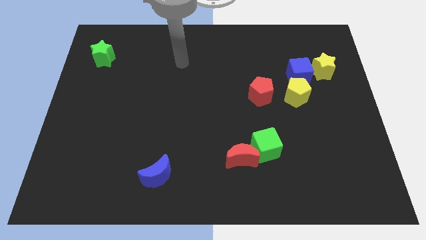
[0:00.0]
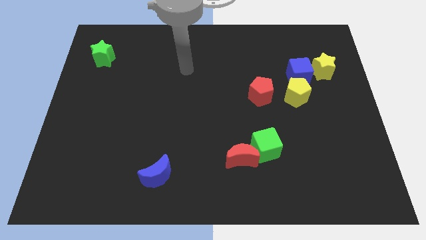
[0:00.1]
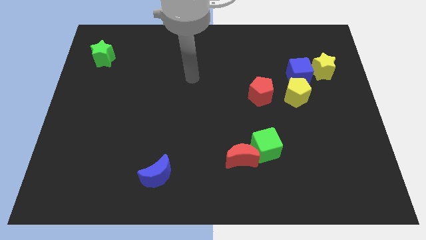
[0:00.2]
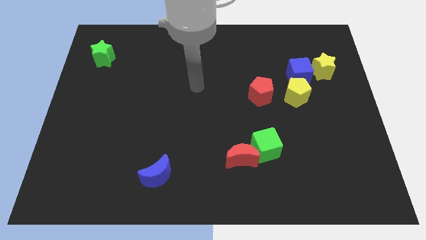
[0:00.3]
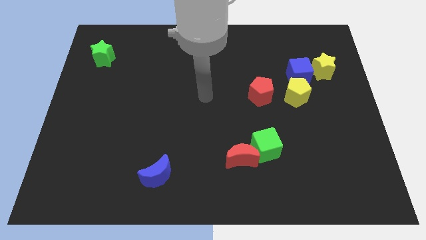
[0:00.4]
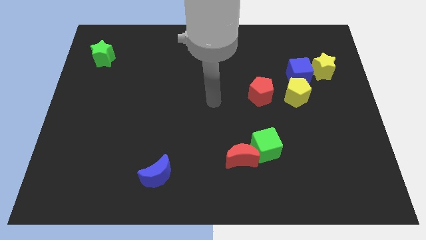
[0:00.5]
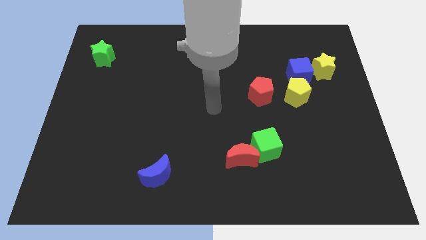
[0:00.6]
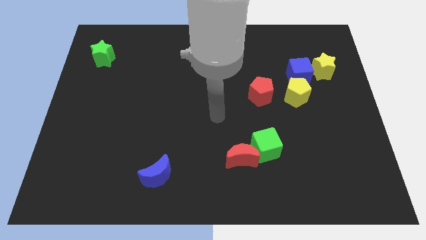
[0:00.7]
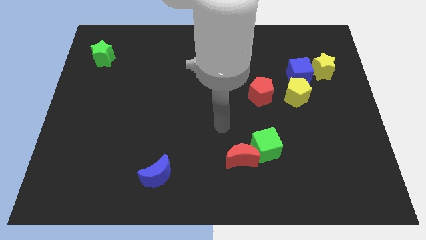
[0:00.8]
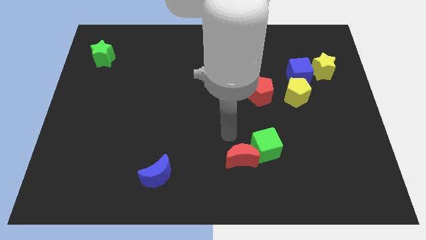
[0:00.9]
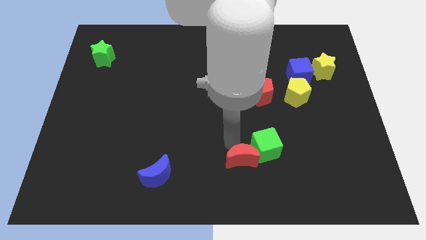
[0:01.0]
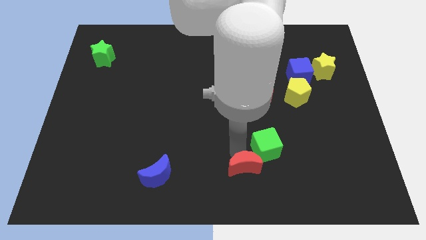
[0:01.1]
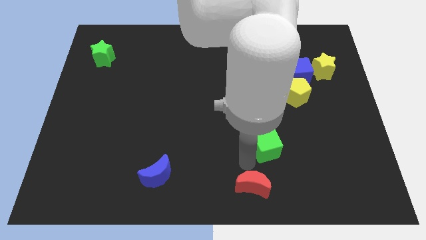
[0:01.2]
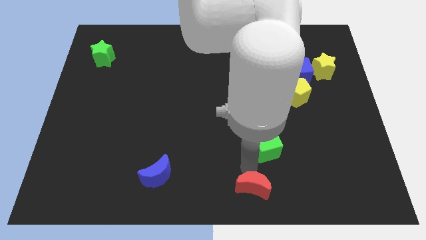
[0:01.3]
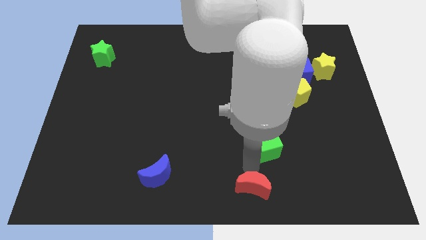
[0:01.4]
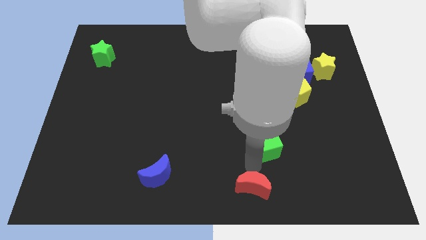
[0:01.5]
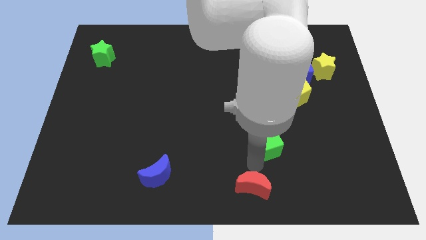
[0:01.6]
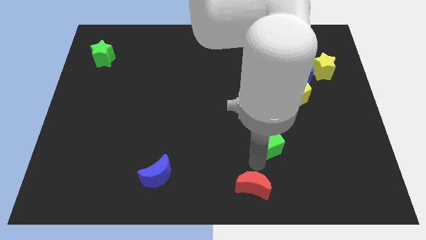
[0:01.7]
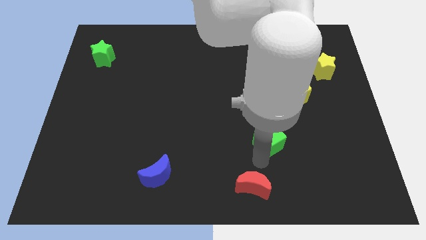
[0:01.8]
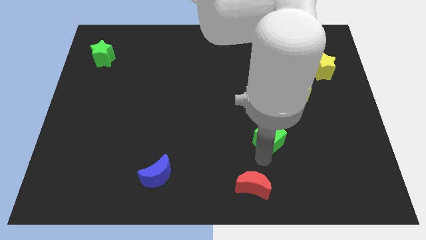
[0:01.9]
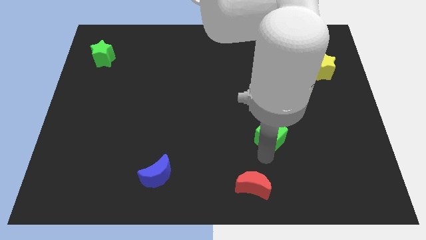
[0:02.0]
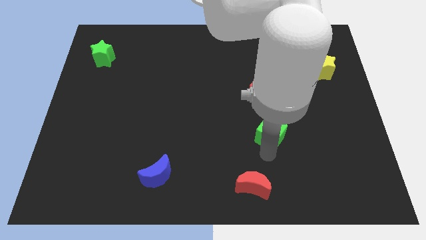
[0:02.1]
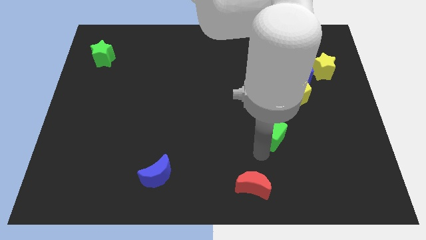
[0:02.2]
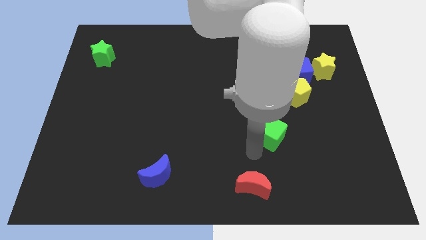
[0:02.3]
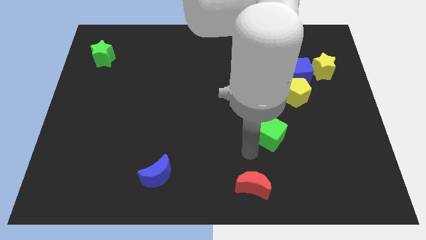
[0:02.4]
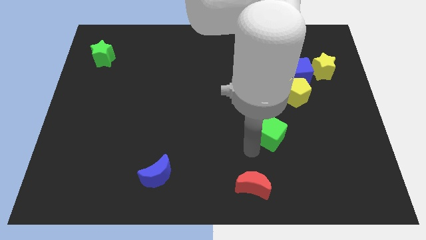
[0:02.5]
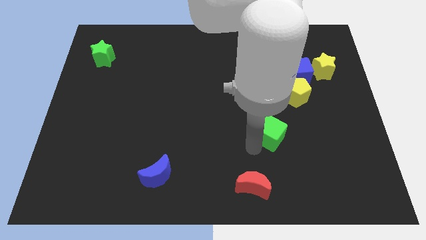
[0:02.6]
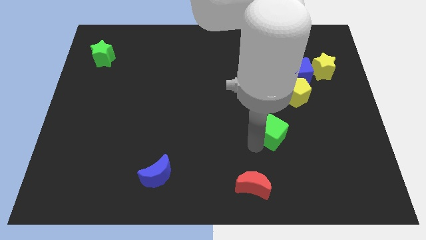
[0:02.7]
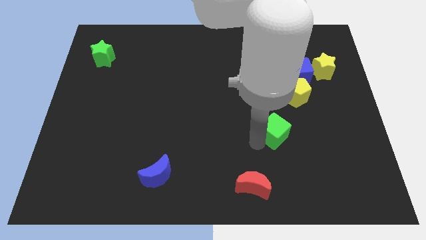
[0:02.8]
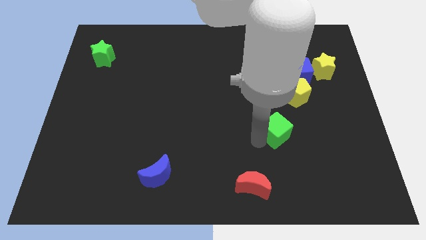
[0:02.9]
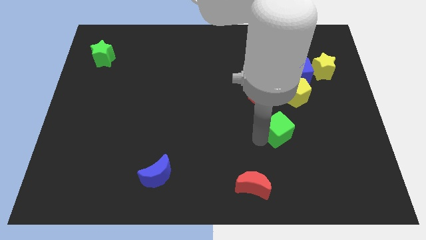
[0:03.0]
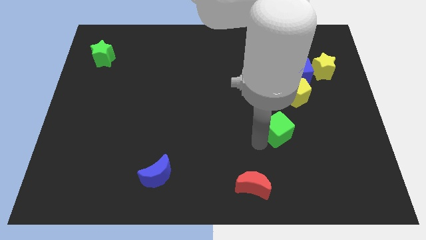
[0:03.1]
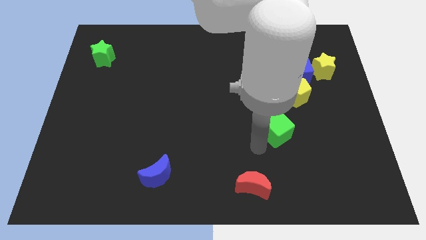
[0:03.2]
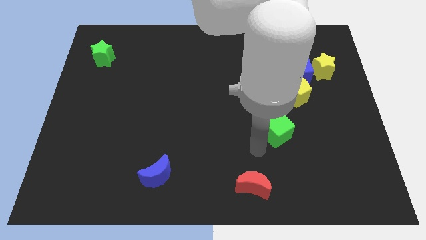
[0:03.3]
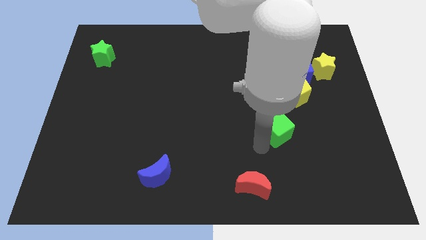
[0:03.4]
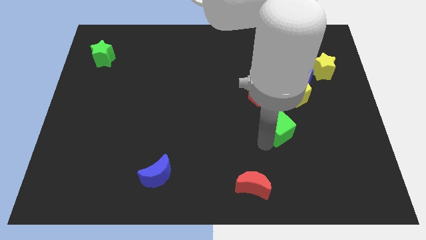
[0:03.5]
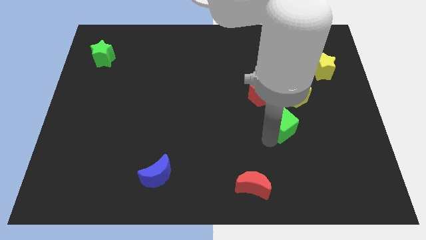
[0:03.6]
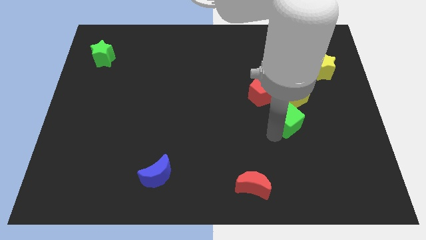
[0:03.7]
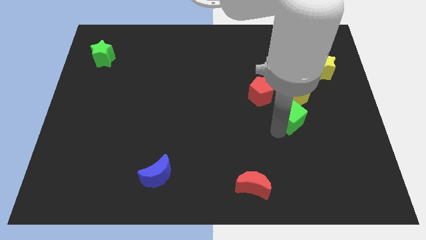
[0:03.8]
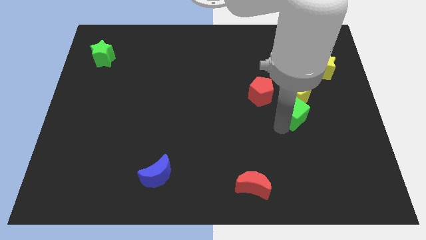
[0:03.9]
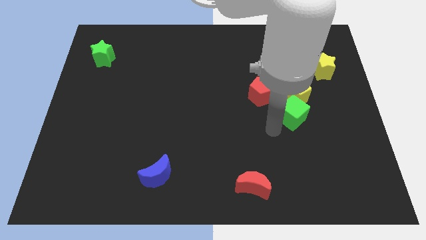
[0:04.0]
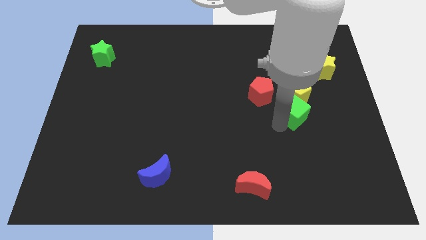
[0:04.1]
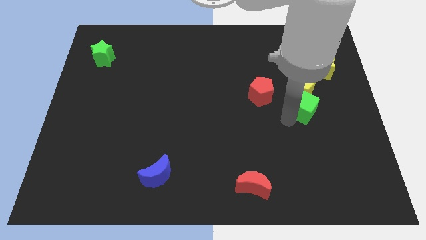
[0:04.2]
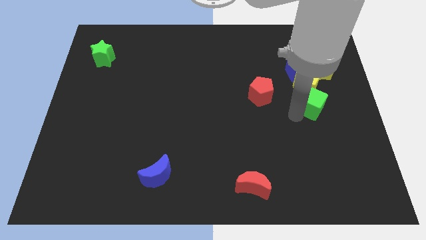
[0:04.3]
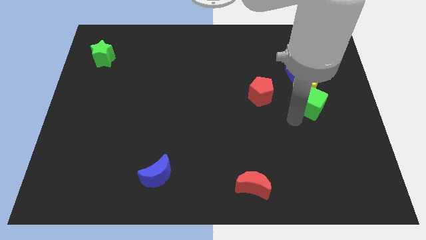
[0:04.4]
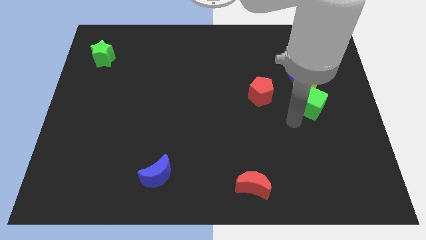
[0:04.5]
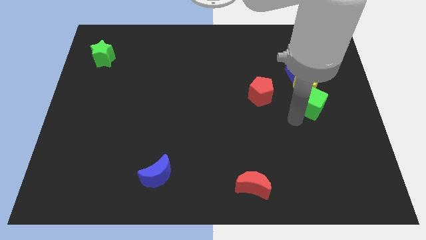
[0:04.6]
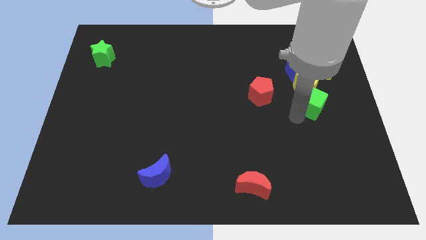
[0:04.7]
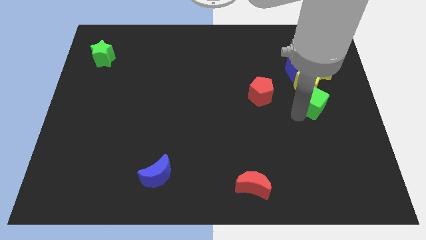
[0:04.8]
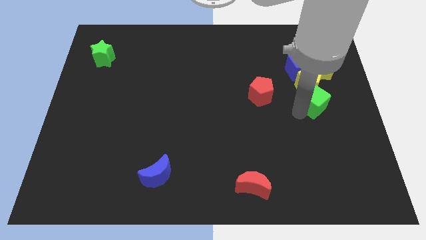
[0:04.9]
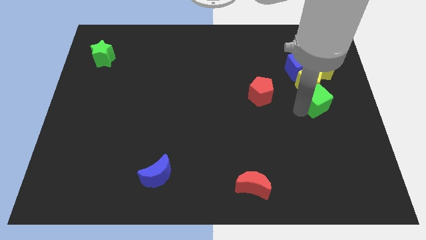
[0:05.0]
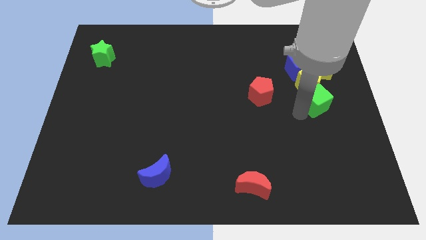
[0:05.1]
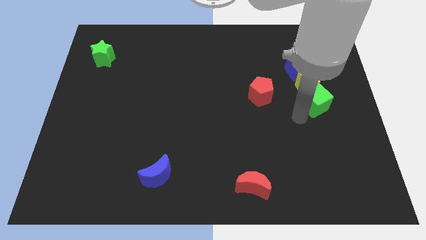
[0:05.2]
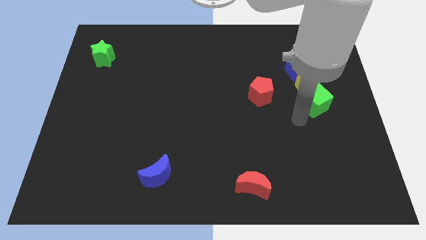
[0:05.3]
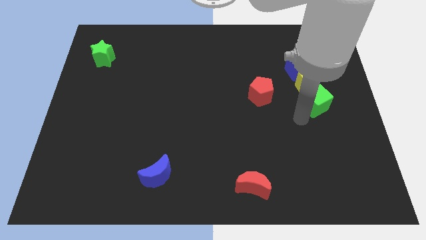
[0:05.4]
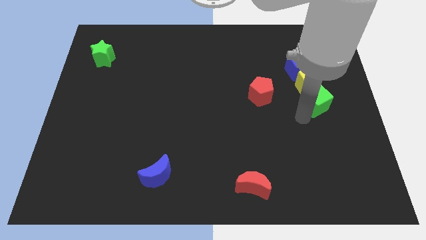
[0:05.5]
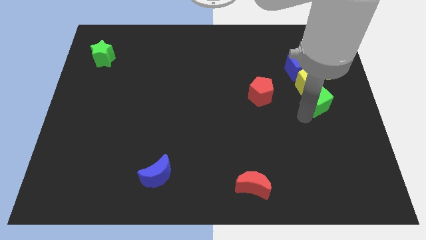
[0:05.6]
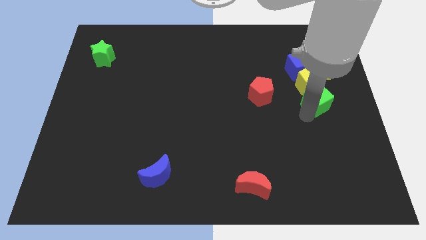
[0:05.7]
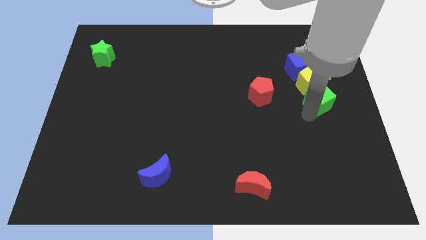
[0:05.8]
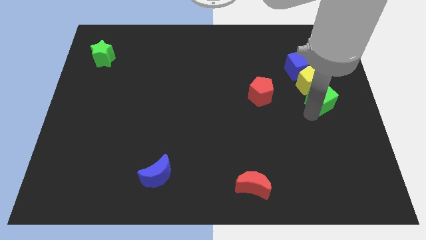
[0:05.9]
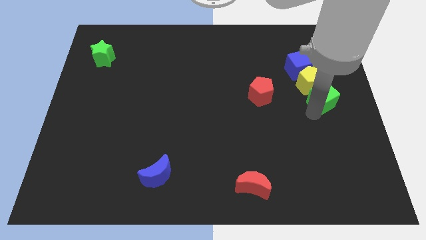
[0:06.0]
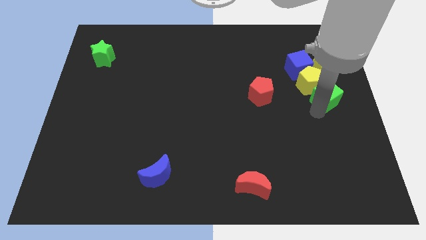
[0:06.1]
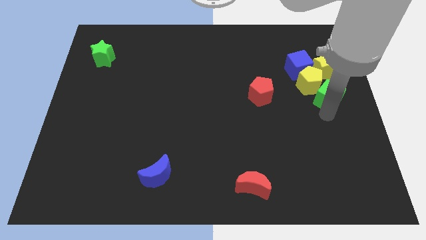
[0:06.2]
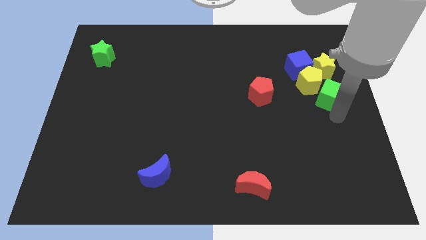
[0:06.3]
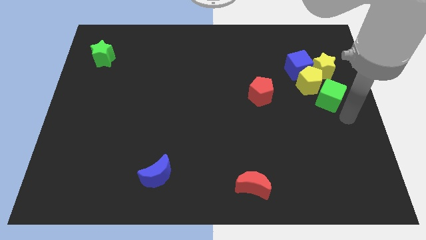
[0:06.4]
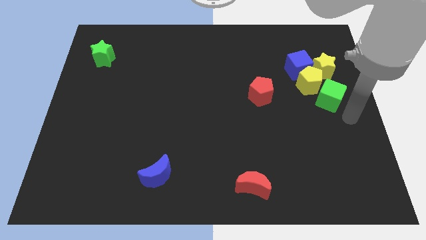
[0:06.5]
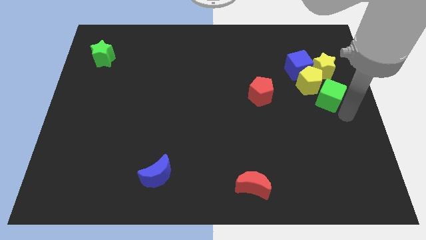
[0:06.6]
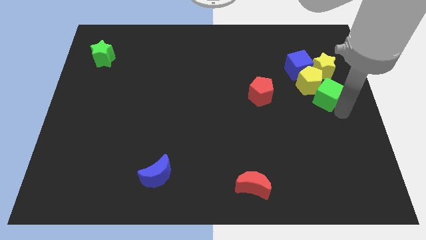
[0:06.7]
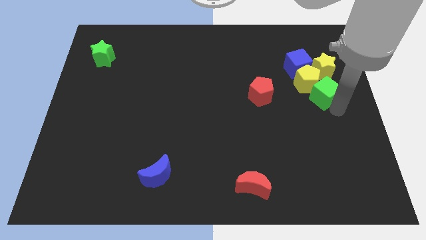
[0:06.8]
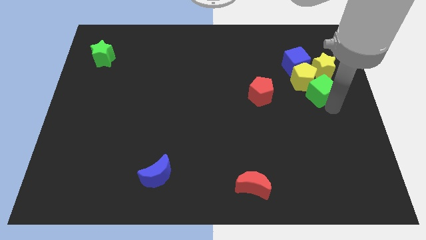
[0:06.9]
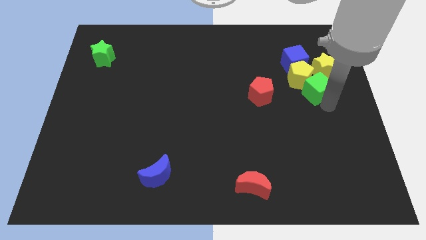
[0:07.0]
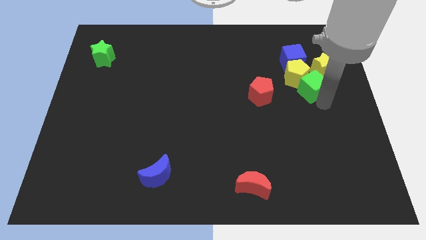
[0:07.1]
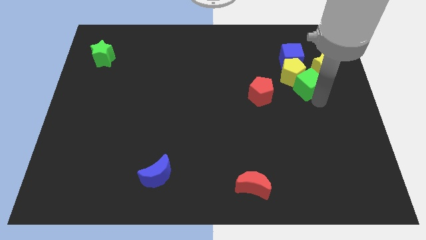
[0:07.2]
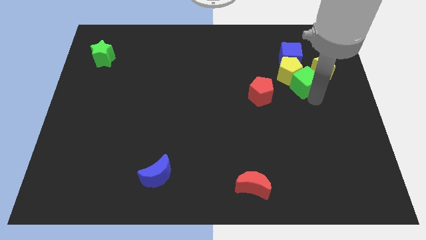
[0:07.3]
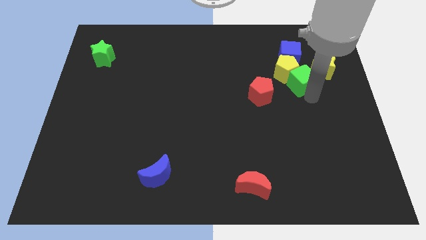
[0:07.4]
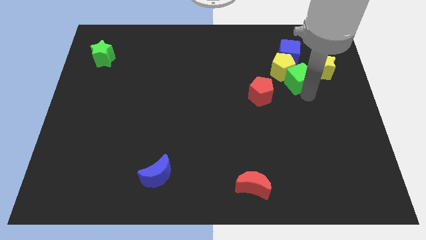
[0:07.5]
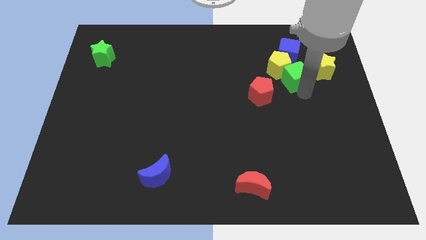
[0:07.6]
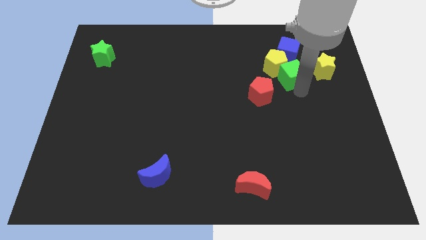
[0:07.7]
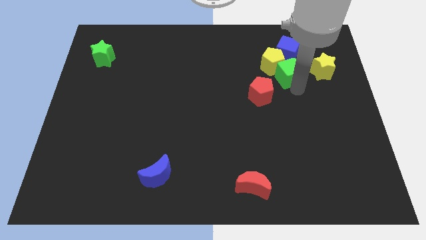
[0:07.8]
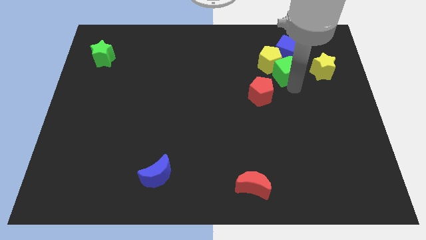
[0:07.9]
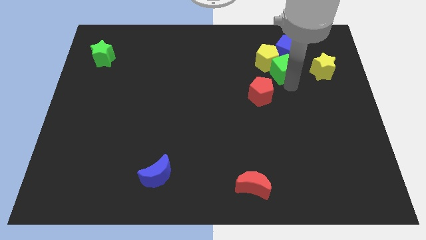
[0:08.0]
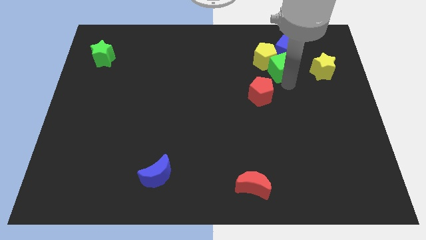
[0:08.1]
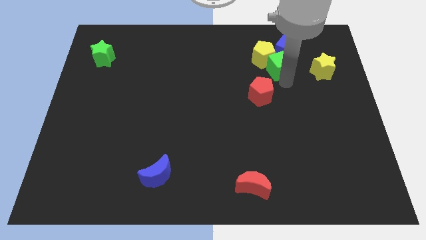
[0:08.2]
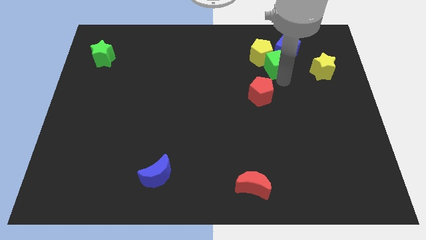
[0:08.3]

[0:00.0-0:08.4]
put the green cube next to the blue cube
